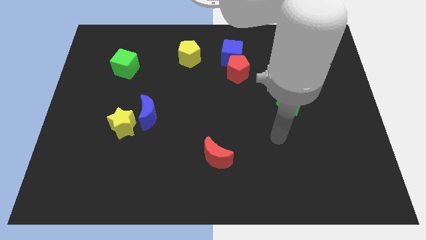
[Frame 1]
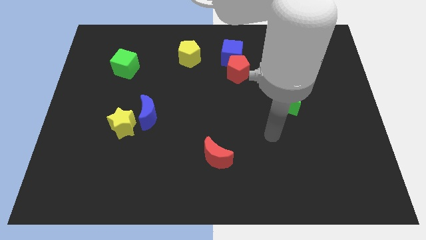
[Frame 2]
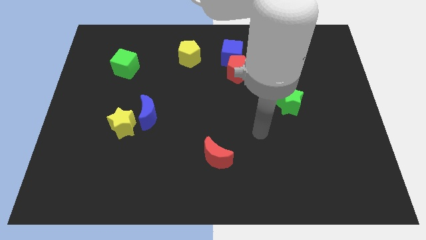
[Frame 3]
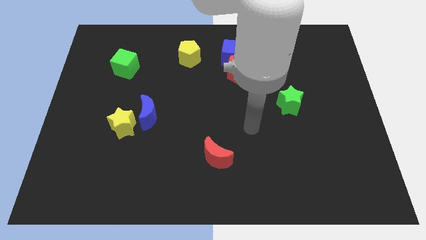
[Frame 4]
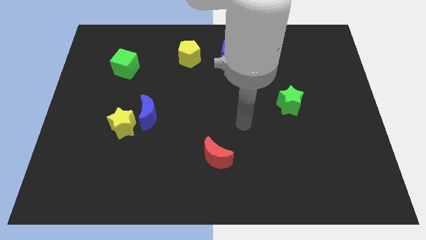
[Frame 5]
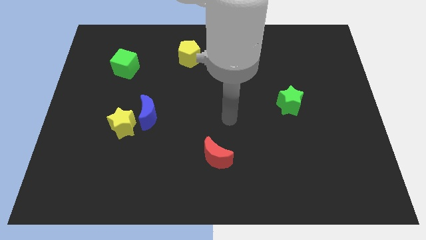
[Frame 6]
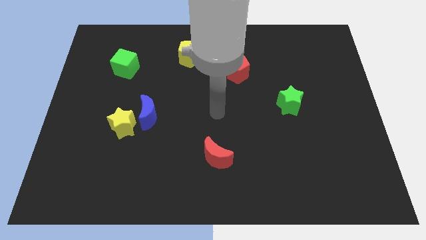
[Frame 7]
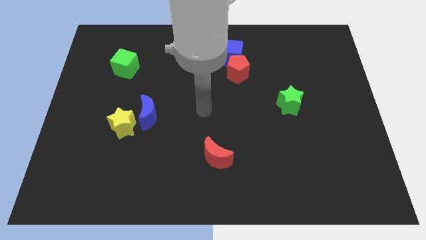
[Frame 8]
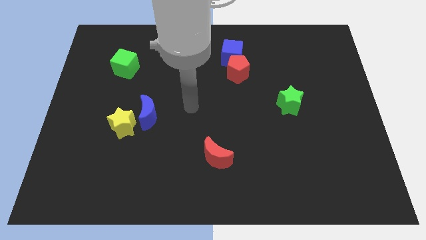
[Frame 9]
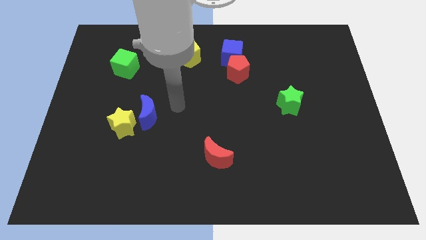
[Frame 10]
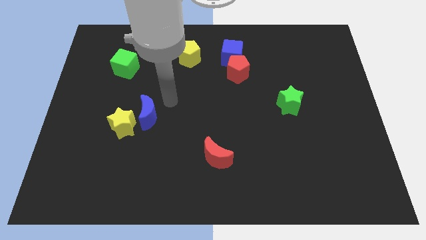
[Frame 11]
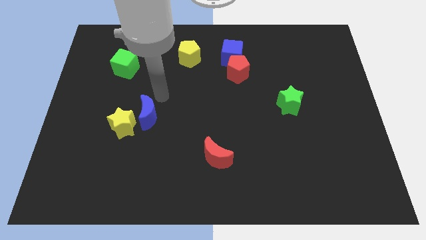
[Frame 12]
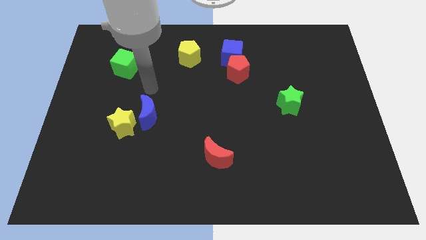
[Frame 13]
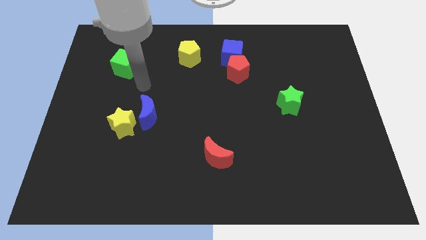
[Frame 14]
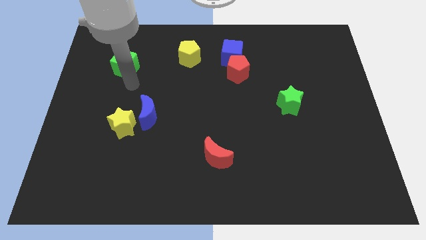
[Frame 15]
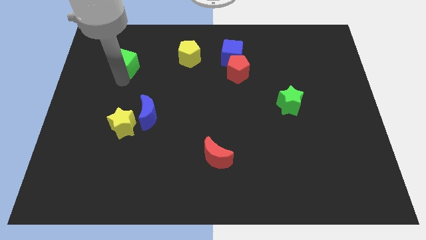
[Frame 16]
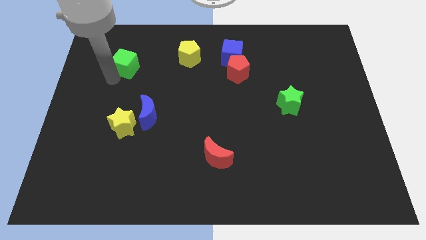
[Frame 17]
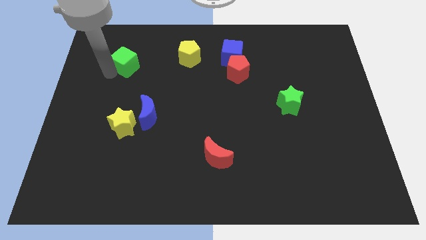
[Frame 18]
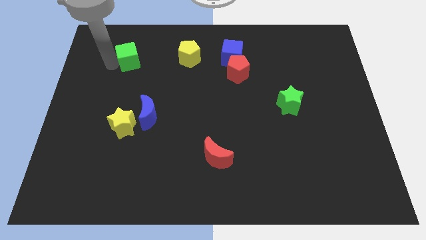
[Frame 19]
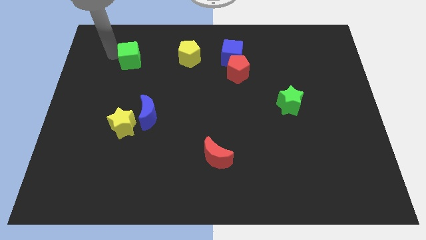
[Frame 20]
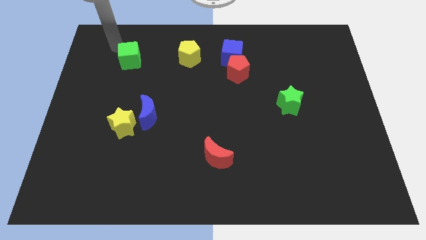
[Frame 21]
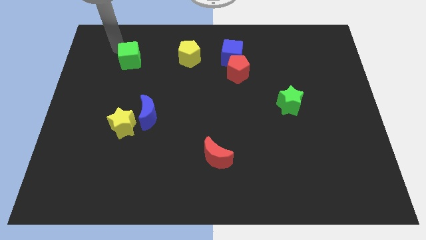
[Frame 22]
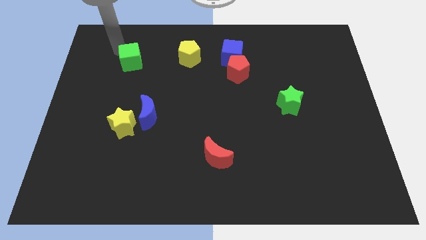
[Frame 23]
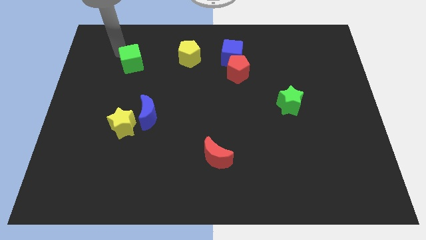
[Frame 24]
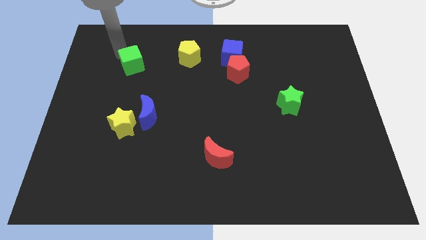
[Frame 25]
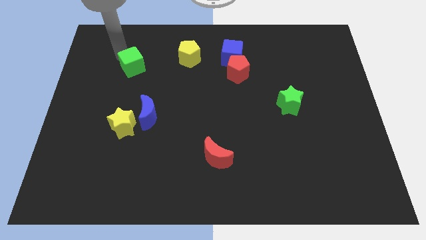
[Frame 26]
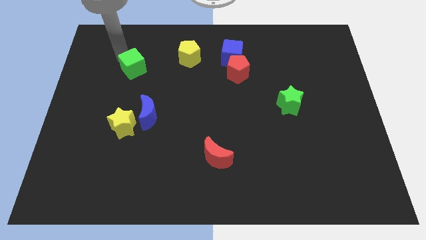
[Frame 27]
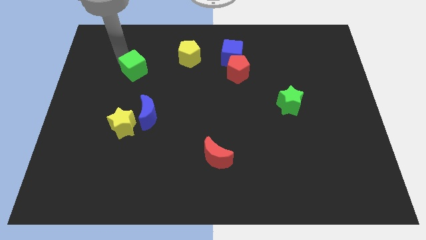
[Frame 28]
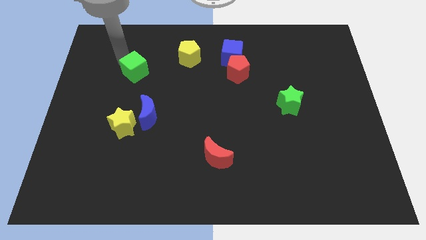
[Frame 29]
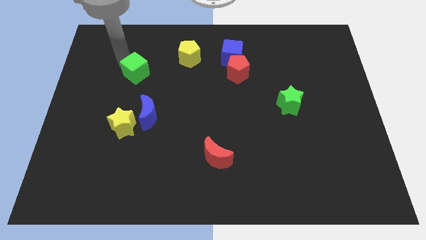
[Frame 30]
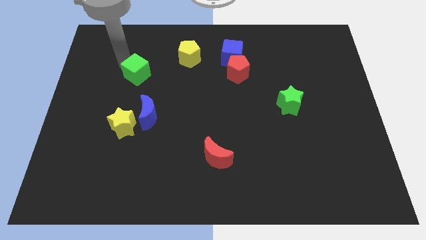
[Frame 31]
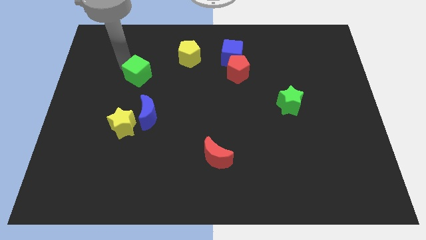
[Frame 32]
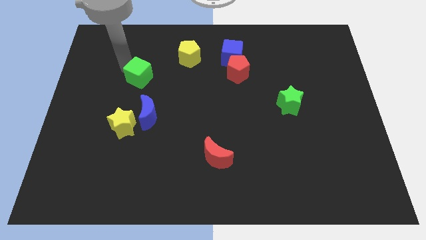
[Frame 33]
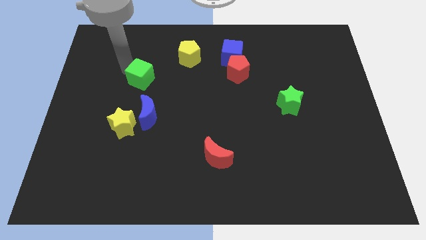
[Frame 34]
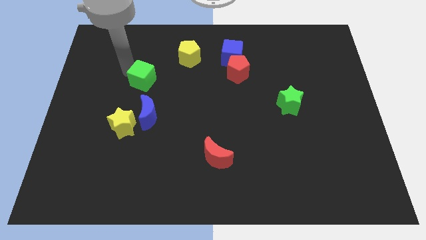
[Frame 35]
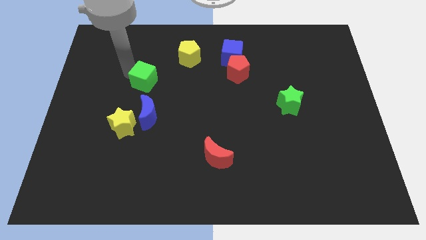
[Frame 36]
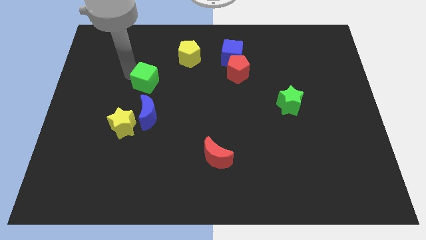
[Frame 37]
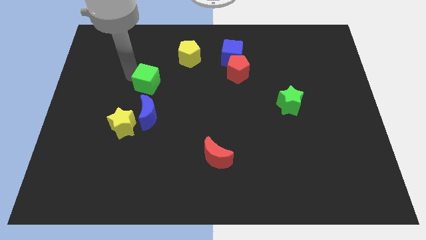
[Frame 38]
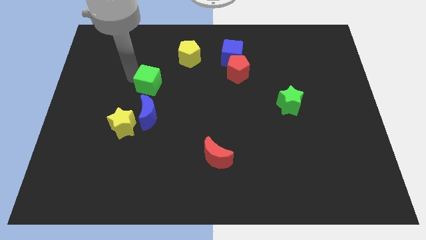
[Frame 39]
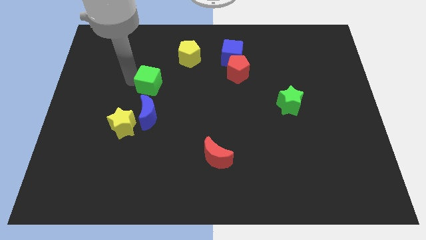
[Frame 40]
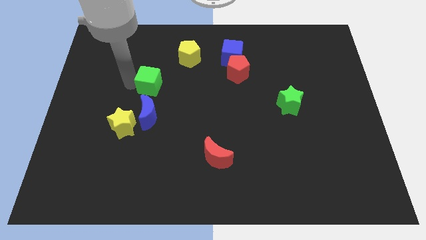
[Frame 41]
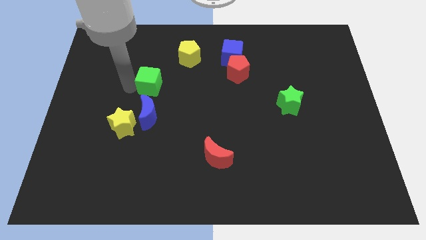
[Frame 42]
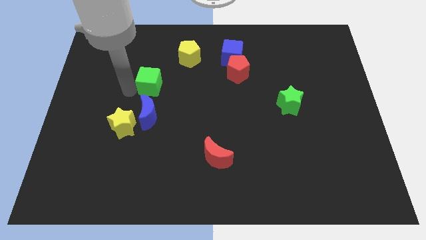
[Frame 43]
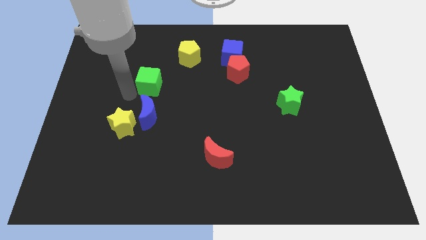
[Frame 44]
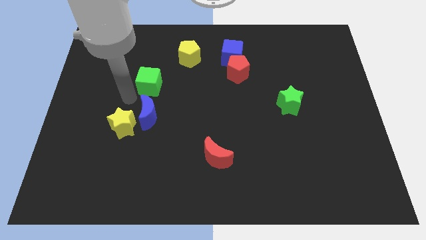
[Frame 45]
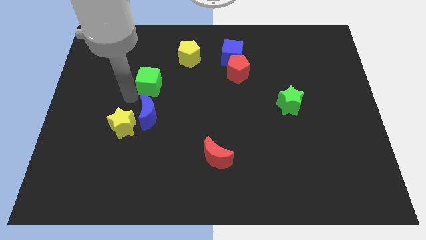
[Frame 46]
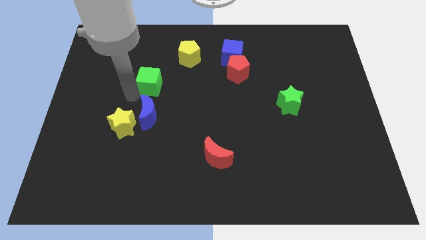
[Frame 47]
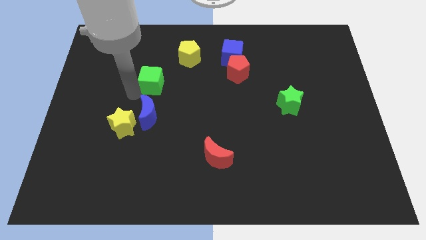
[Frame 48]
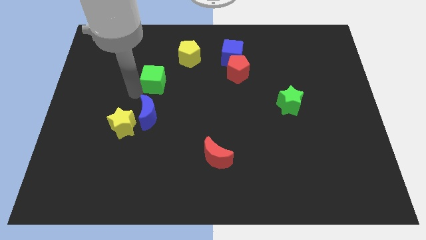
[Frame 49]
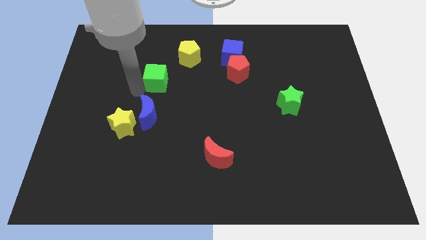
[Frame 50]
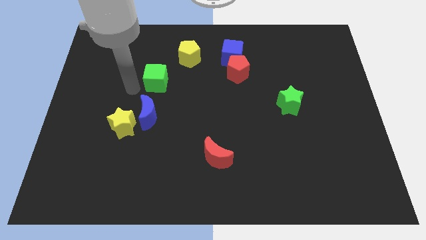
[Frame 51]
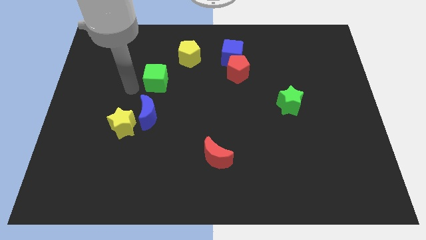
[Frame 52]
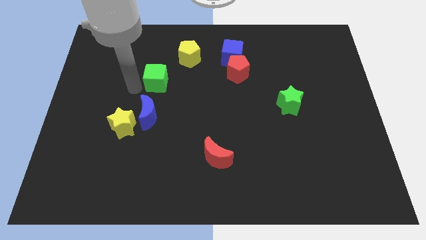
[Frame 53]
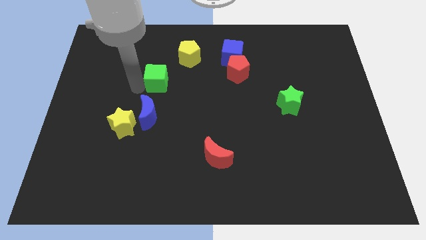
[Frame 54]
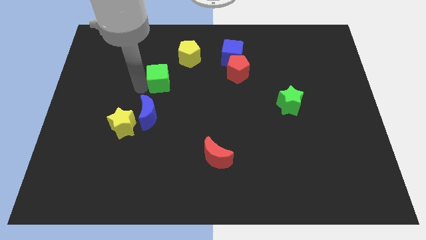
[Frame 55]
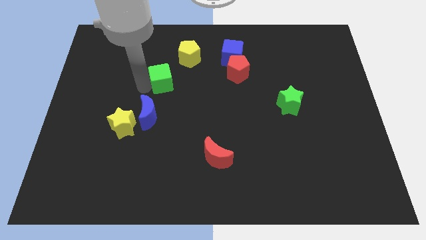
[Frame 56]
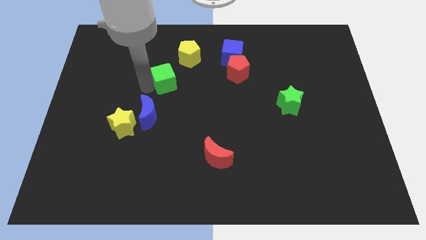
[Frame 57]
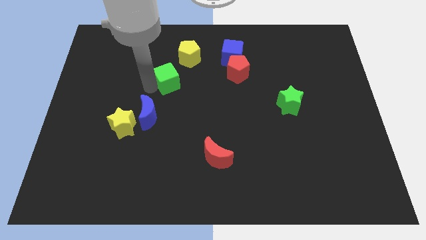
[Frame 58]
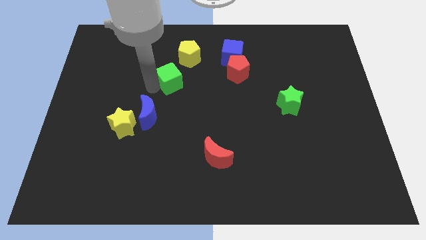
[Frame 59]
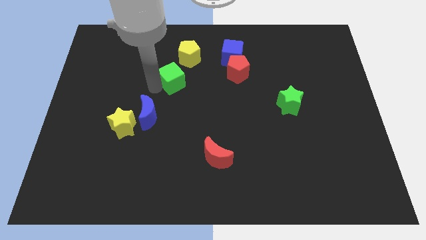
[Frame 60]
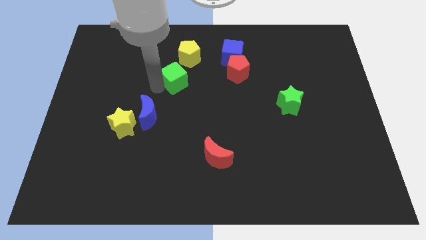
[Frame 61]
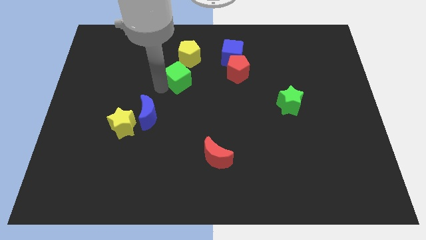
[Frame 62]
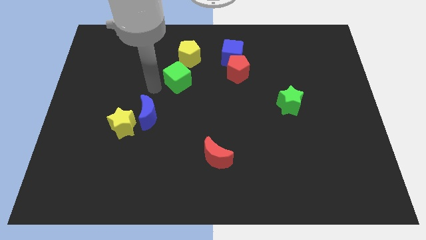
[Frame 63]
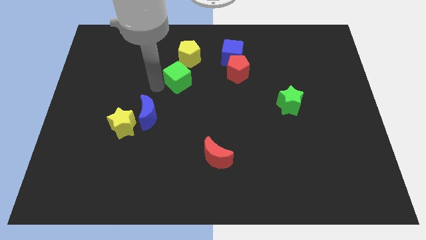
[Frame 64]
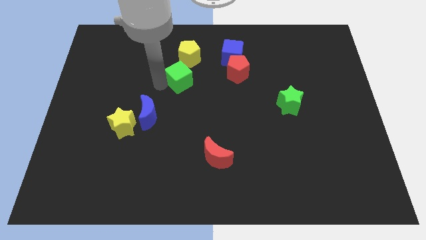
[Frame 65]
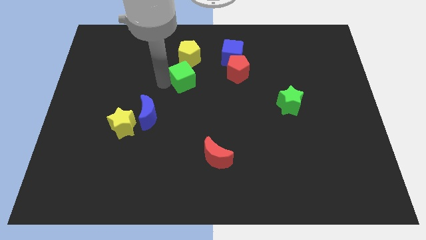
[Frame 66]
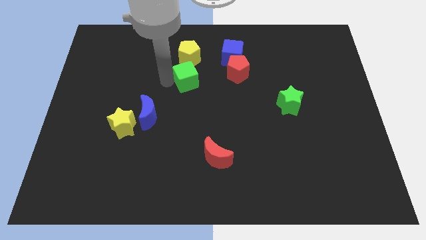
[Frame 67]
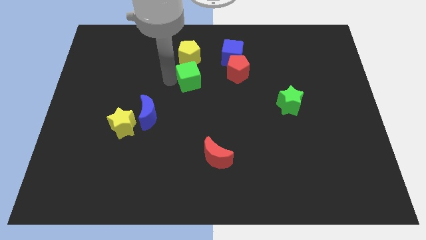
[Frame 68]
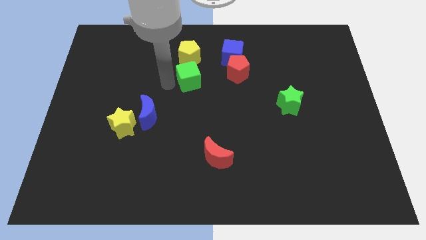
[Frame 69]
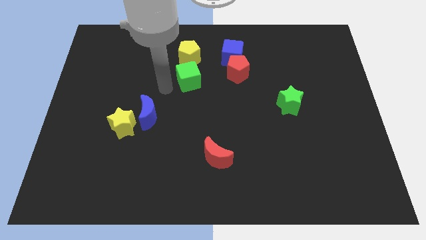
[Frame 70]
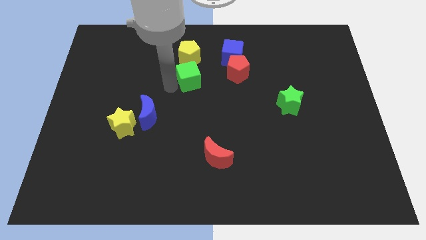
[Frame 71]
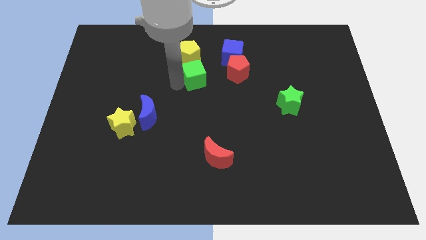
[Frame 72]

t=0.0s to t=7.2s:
move the green cube diagonally down and to the left of the blue cube

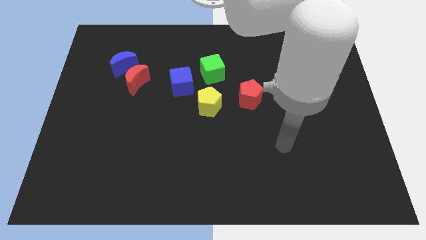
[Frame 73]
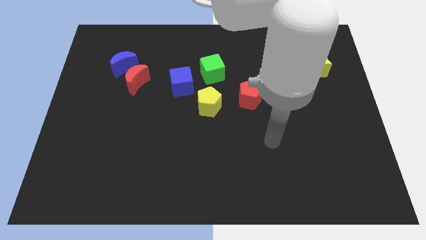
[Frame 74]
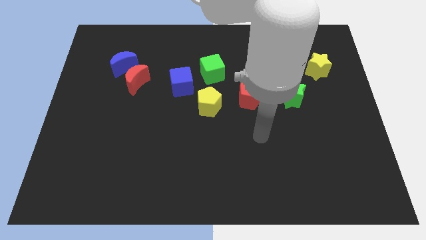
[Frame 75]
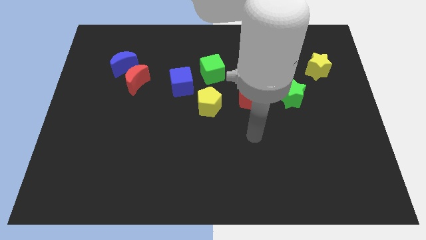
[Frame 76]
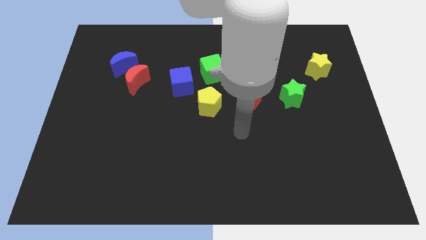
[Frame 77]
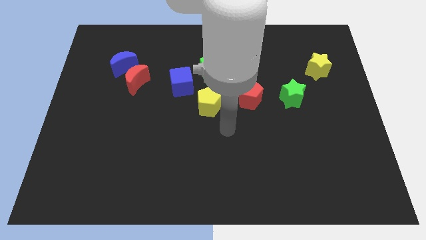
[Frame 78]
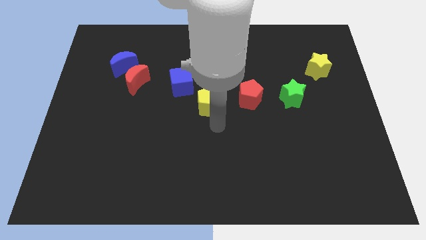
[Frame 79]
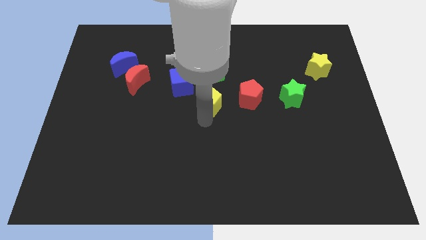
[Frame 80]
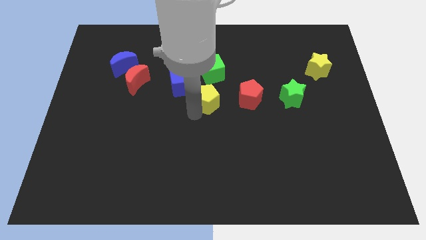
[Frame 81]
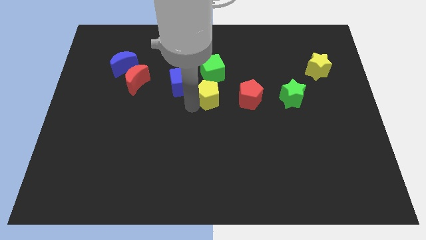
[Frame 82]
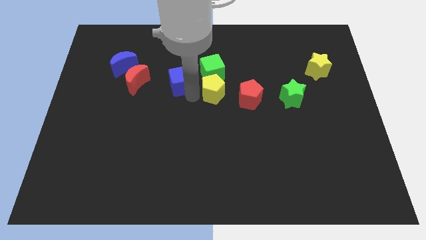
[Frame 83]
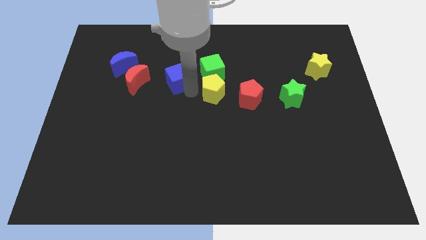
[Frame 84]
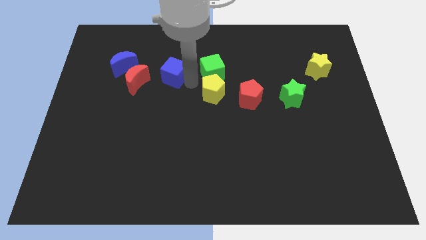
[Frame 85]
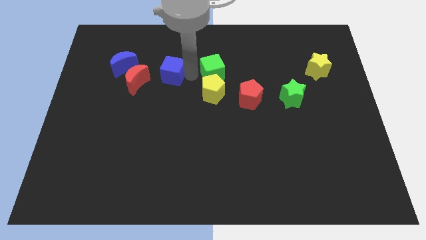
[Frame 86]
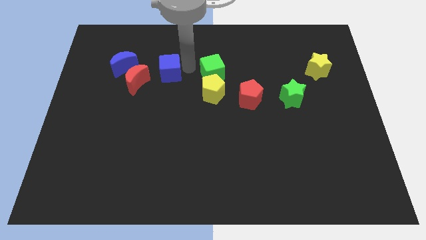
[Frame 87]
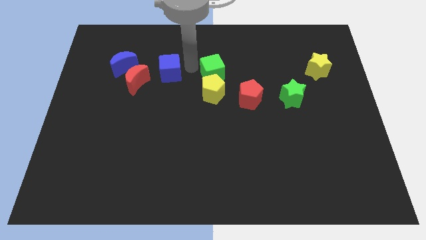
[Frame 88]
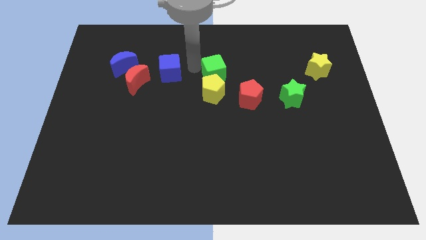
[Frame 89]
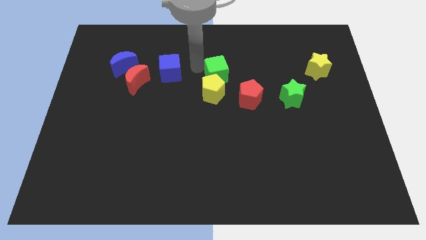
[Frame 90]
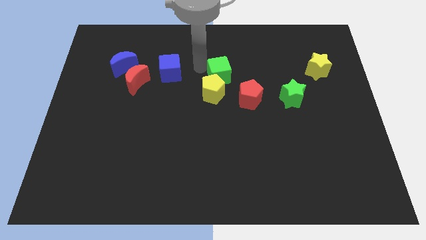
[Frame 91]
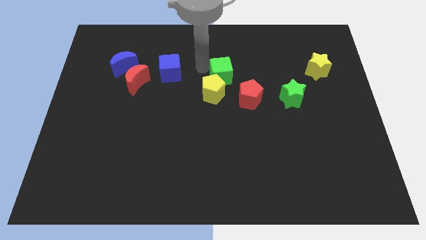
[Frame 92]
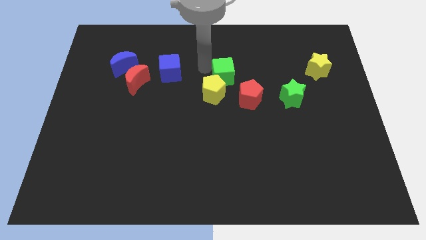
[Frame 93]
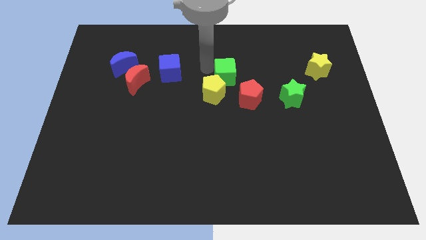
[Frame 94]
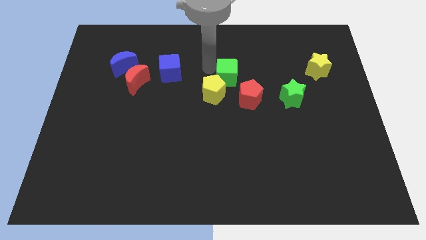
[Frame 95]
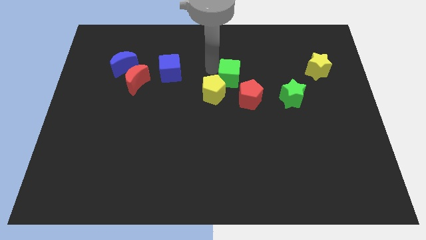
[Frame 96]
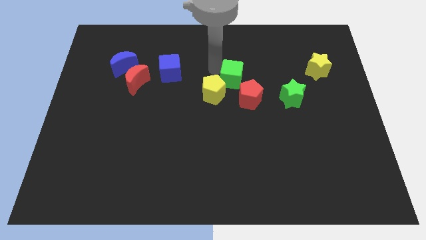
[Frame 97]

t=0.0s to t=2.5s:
slide the green cube just right of the yellow pentagon
